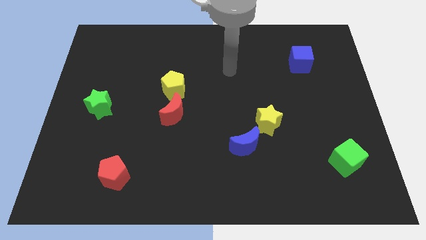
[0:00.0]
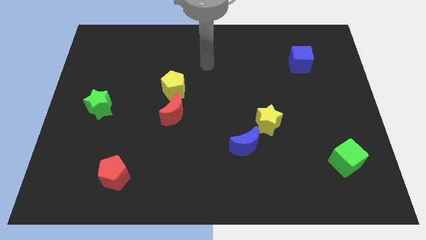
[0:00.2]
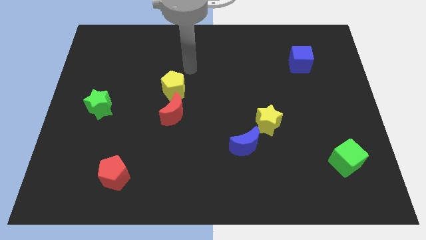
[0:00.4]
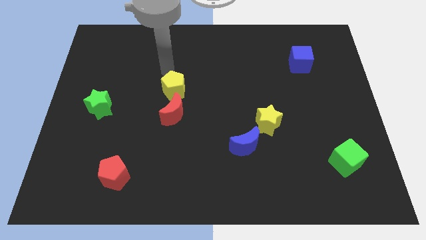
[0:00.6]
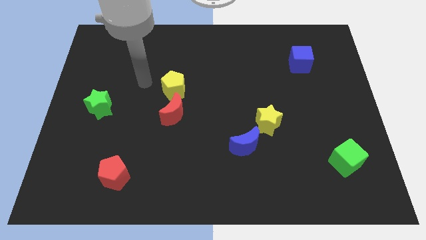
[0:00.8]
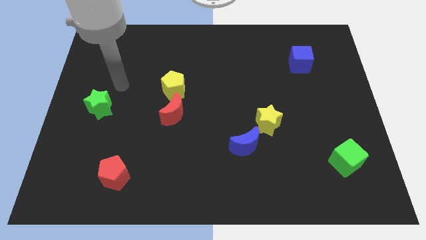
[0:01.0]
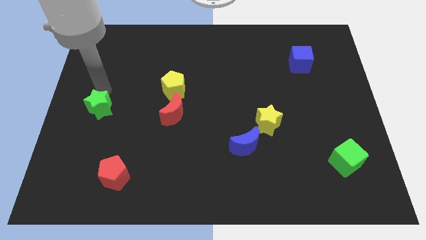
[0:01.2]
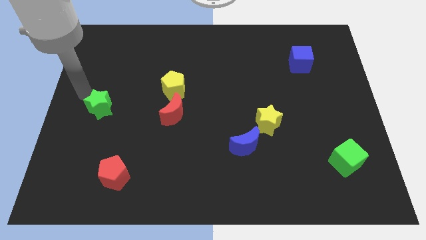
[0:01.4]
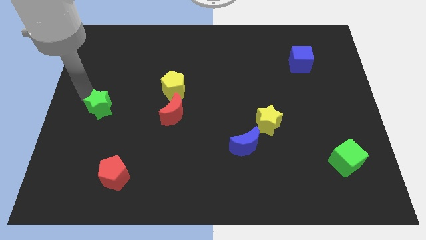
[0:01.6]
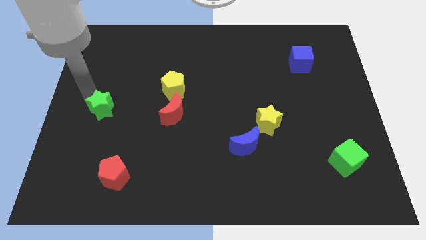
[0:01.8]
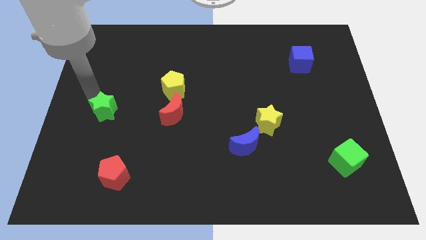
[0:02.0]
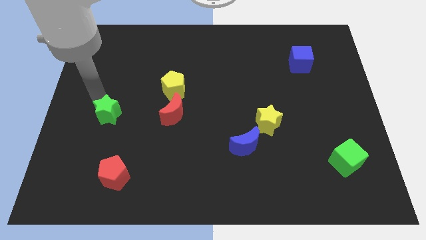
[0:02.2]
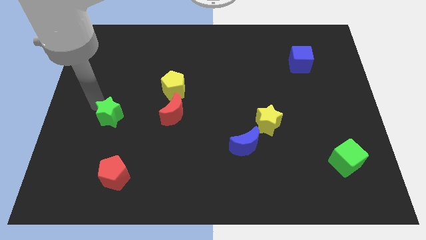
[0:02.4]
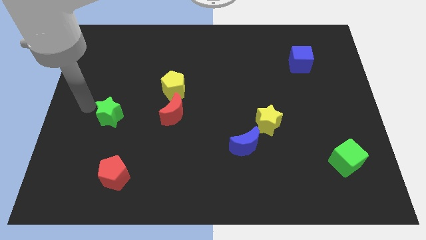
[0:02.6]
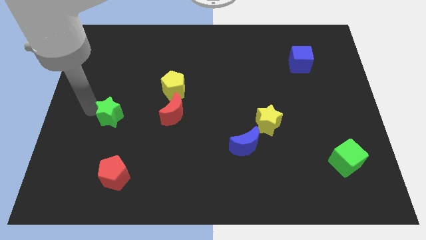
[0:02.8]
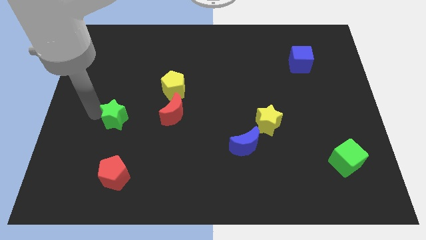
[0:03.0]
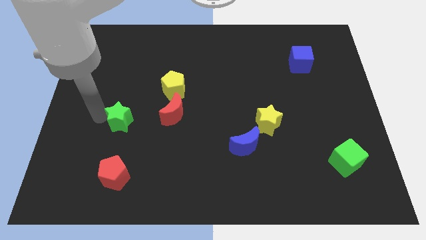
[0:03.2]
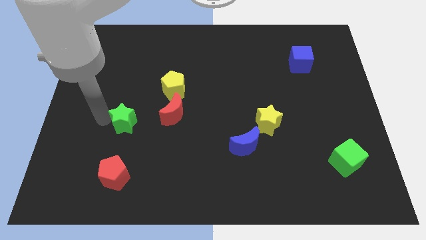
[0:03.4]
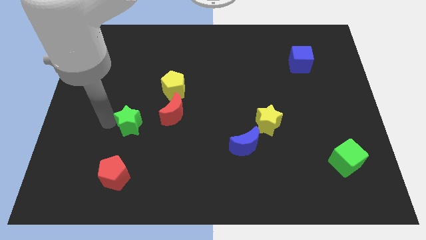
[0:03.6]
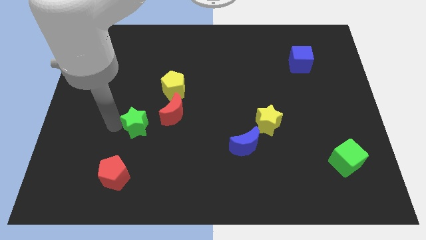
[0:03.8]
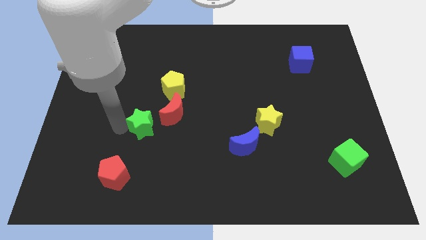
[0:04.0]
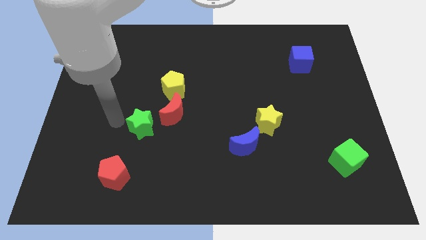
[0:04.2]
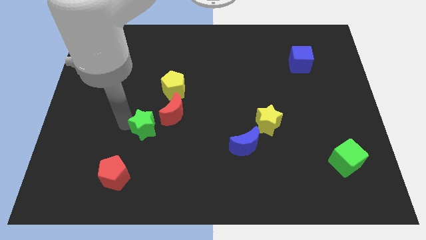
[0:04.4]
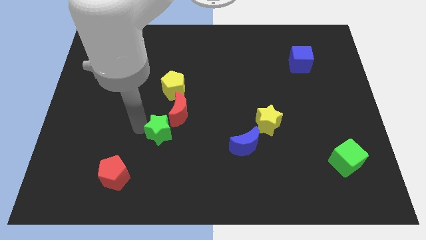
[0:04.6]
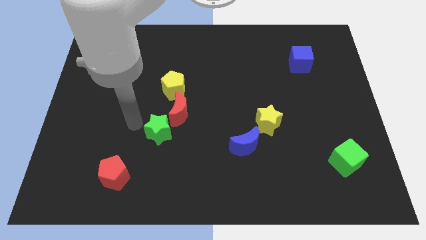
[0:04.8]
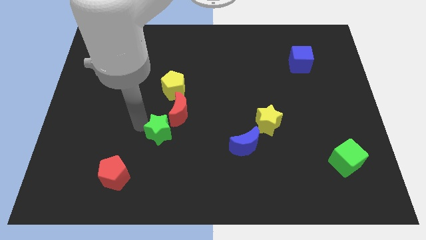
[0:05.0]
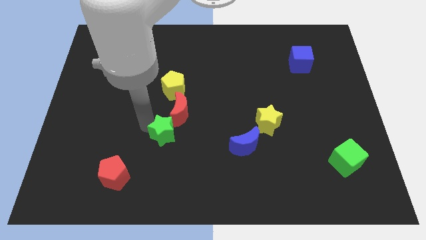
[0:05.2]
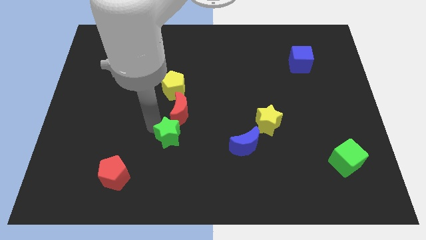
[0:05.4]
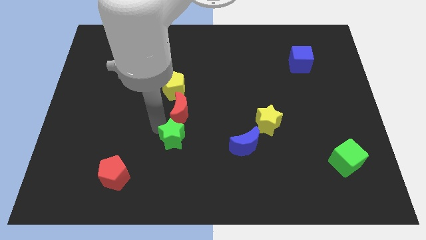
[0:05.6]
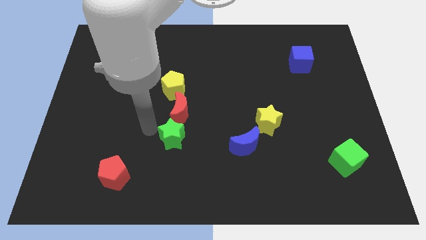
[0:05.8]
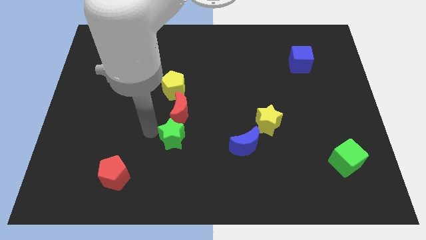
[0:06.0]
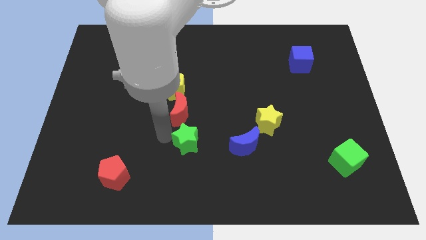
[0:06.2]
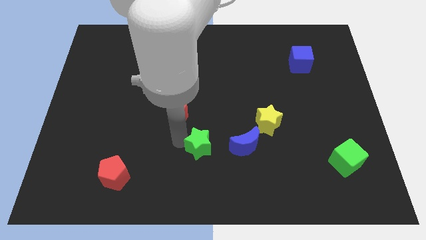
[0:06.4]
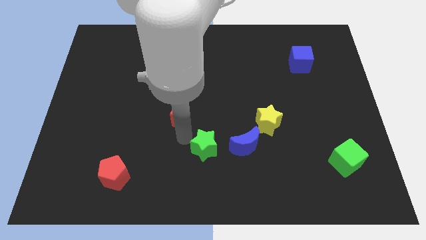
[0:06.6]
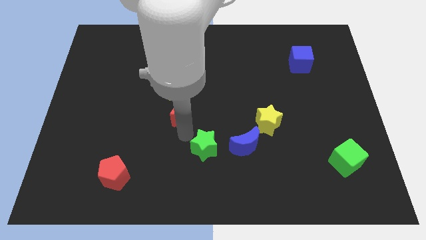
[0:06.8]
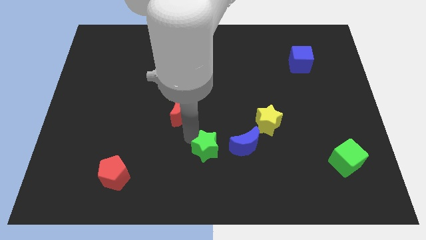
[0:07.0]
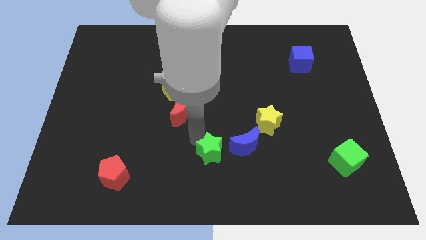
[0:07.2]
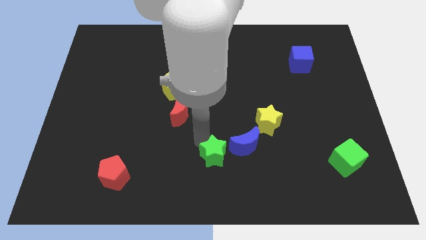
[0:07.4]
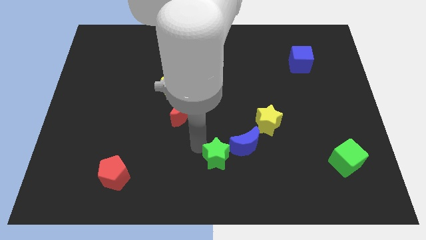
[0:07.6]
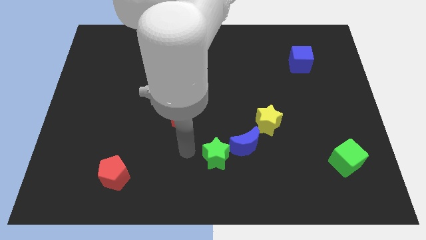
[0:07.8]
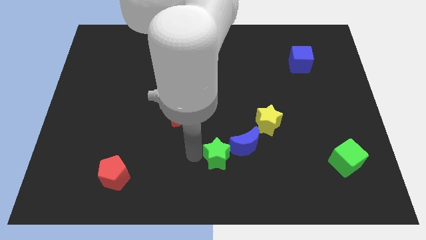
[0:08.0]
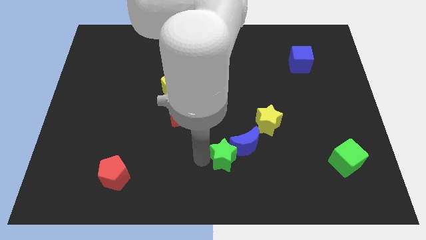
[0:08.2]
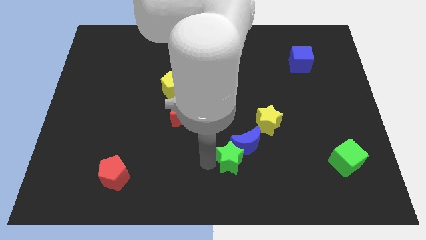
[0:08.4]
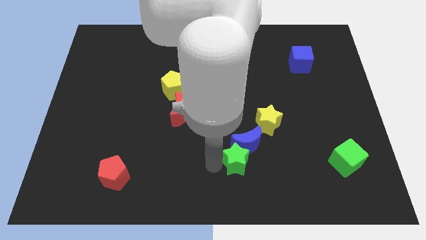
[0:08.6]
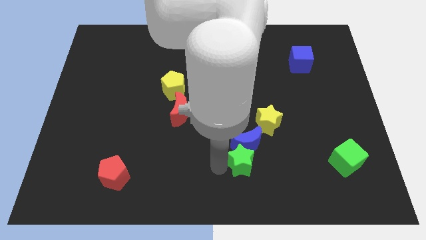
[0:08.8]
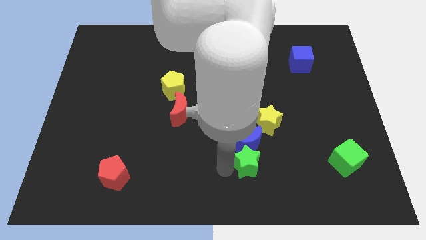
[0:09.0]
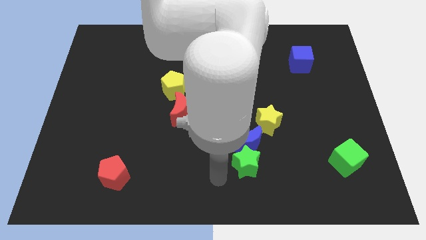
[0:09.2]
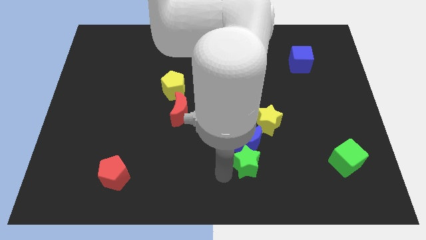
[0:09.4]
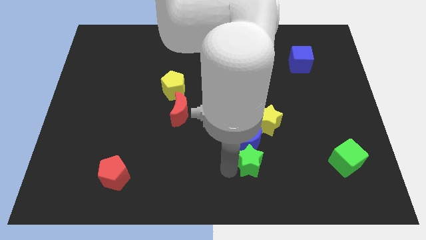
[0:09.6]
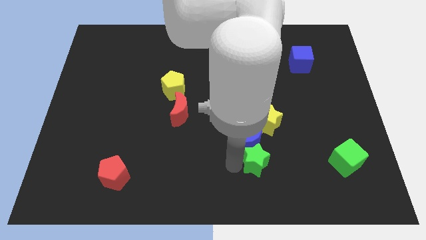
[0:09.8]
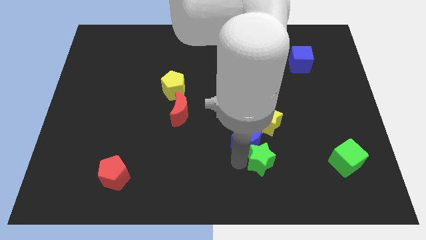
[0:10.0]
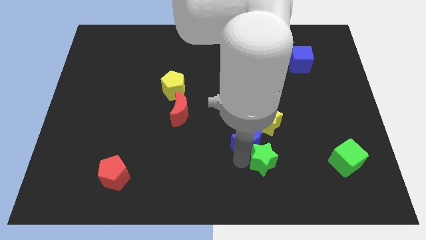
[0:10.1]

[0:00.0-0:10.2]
slide the green star to the right side of the blue moon

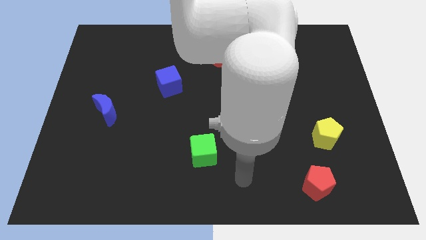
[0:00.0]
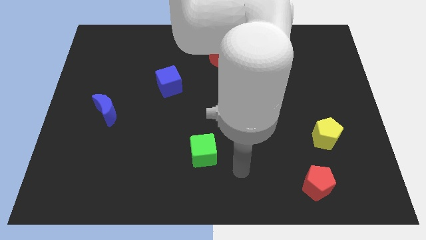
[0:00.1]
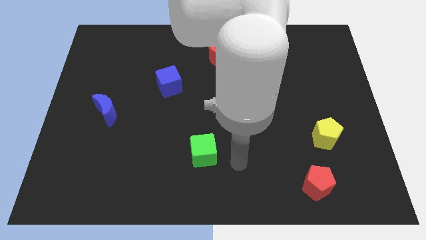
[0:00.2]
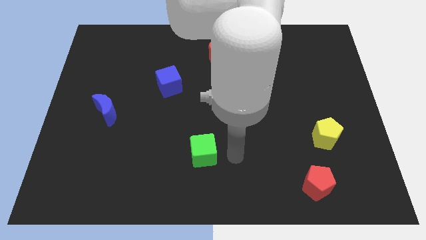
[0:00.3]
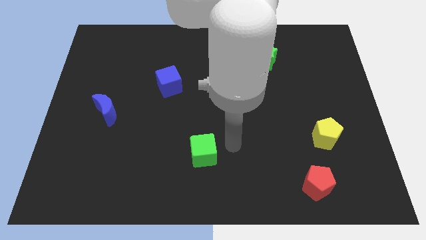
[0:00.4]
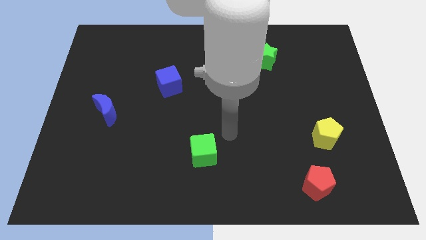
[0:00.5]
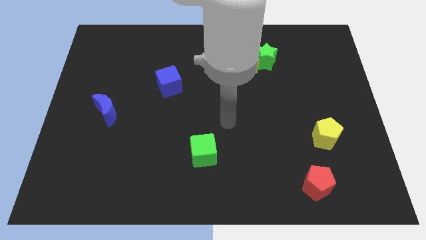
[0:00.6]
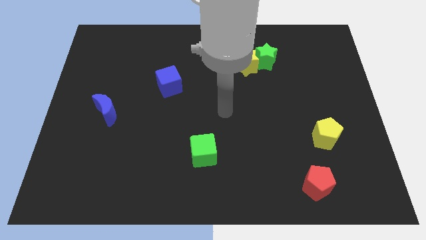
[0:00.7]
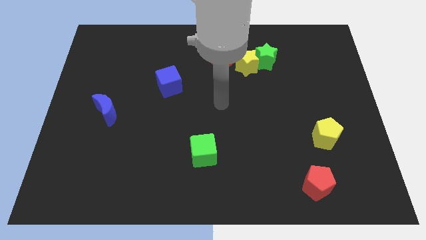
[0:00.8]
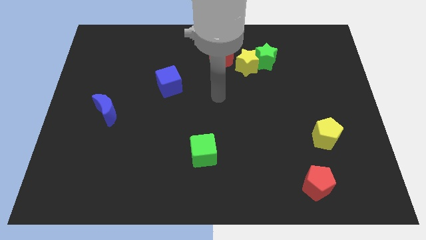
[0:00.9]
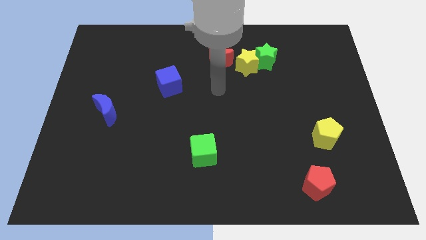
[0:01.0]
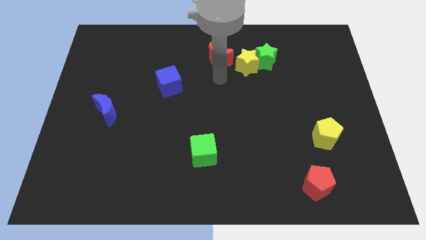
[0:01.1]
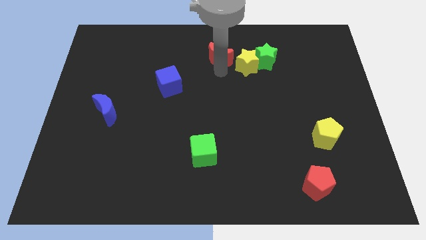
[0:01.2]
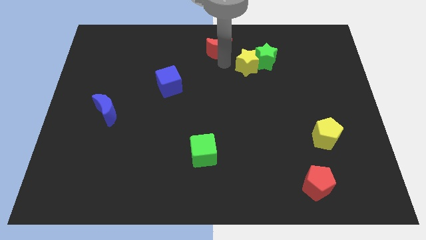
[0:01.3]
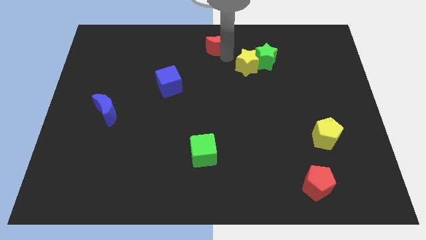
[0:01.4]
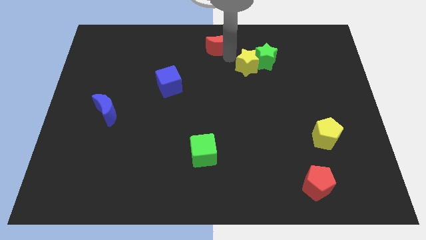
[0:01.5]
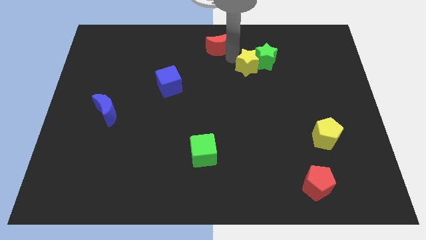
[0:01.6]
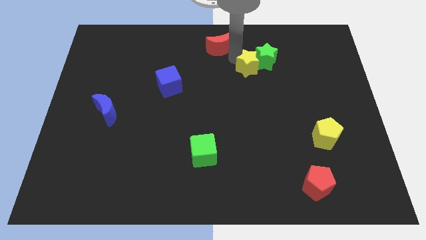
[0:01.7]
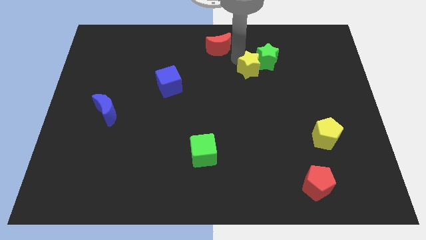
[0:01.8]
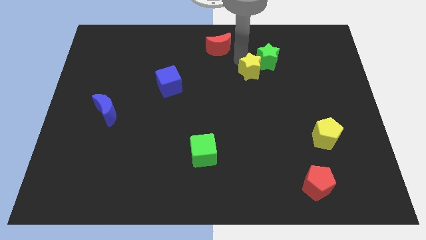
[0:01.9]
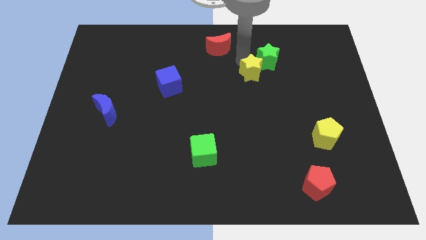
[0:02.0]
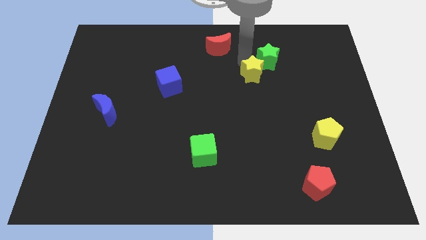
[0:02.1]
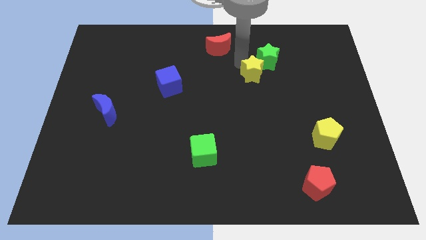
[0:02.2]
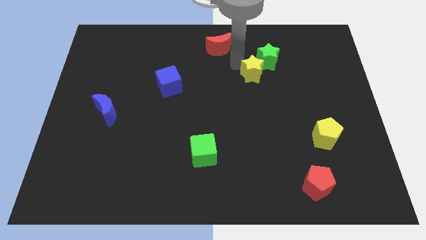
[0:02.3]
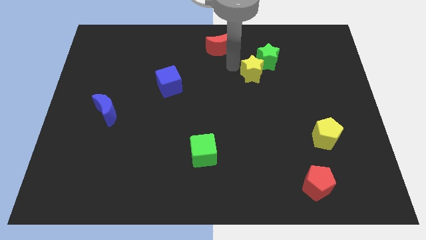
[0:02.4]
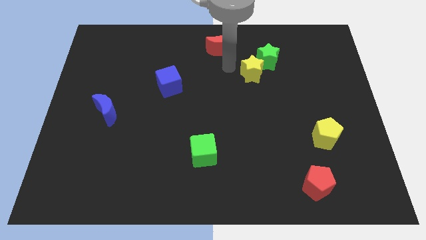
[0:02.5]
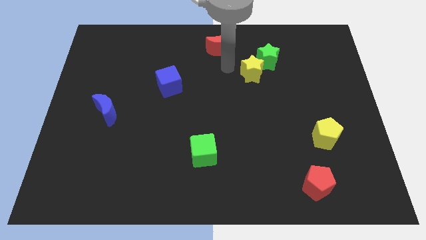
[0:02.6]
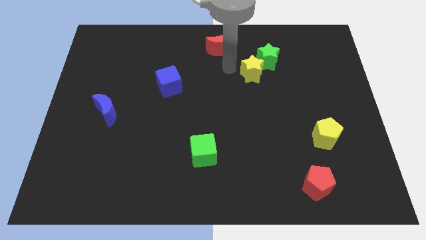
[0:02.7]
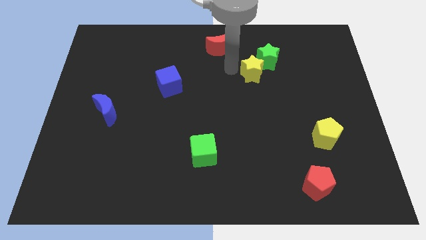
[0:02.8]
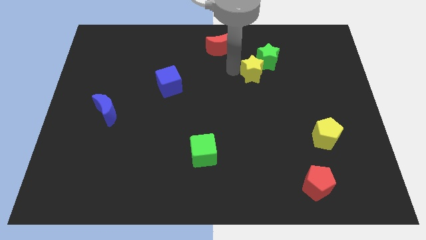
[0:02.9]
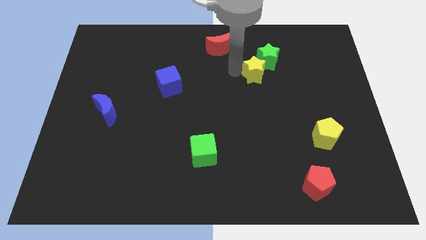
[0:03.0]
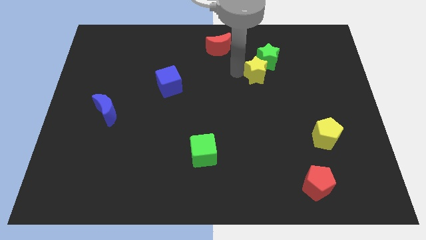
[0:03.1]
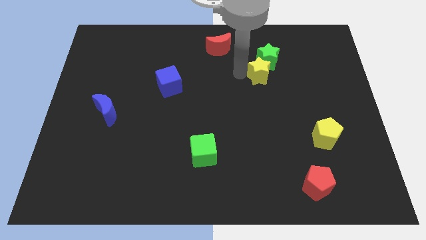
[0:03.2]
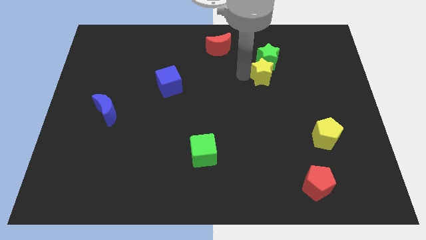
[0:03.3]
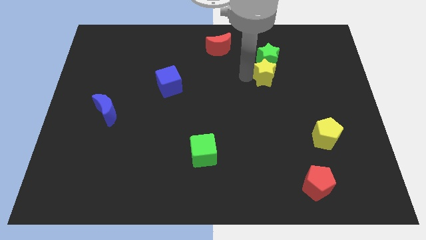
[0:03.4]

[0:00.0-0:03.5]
move the yellow star to the bottom right side of the green star
